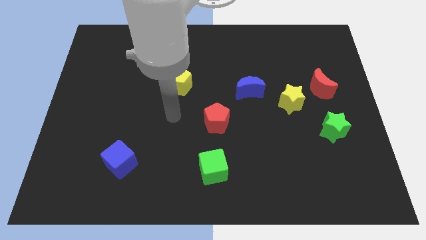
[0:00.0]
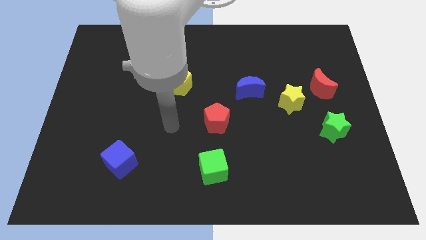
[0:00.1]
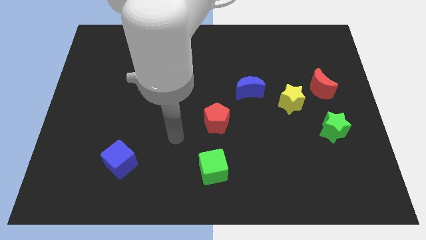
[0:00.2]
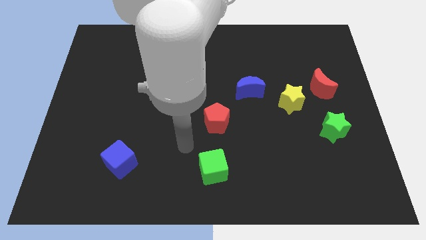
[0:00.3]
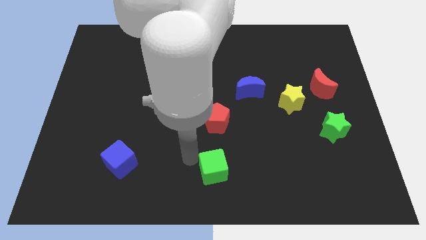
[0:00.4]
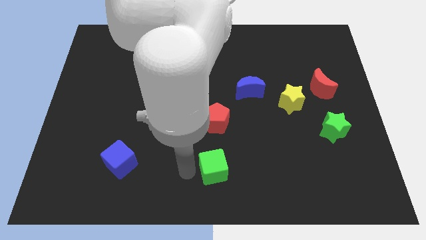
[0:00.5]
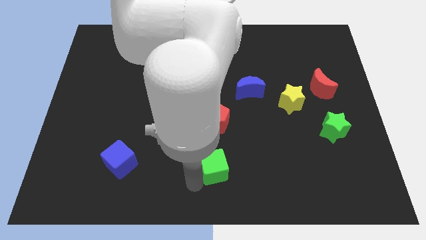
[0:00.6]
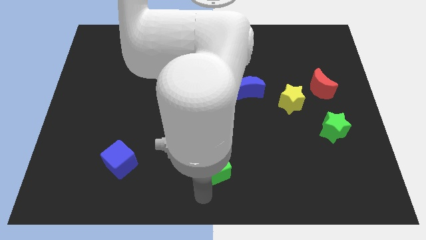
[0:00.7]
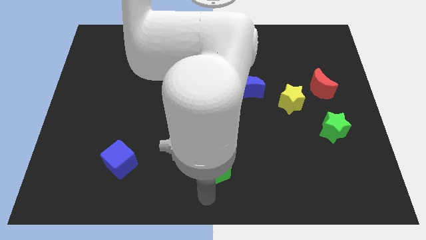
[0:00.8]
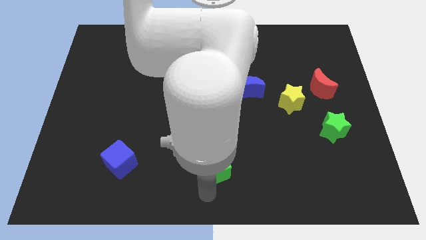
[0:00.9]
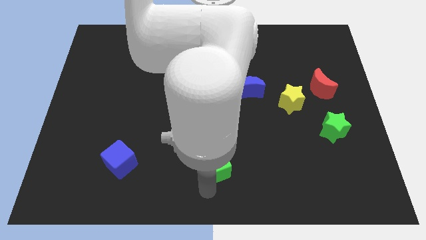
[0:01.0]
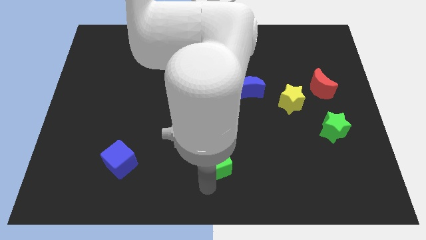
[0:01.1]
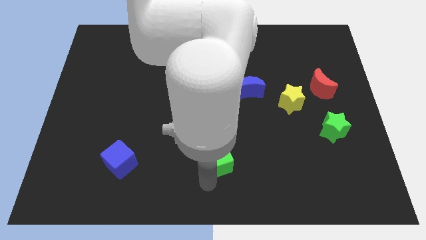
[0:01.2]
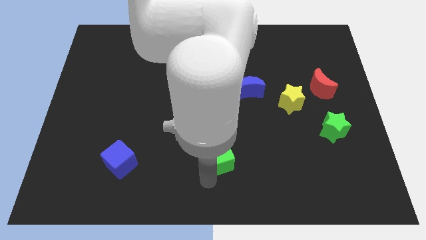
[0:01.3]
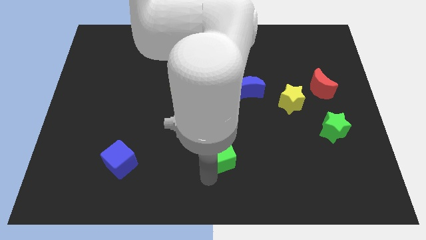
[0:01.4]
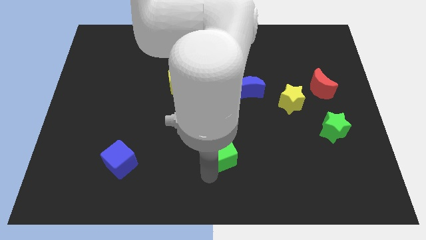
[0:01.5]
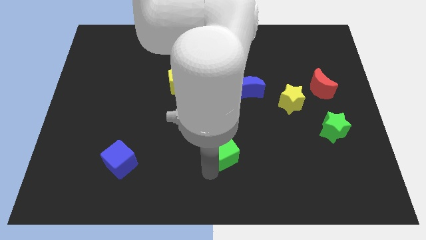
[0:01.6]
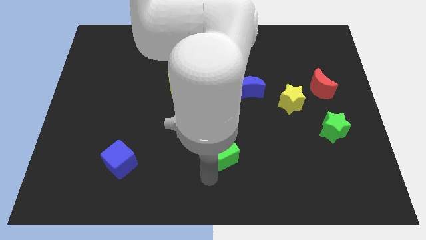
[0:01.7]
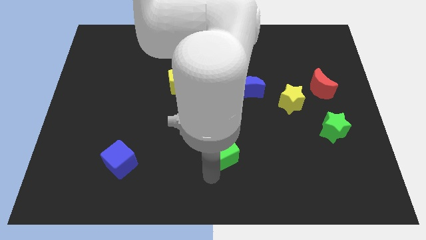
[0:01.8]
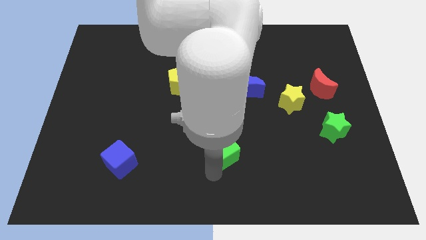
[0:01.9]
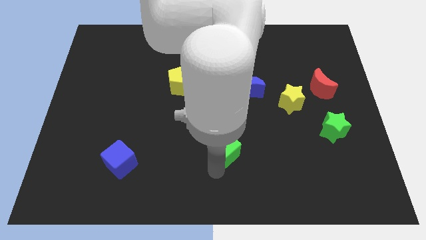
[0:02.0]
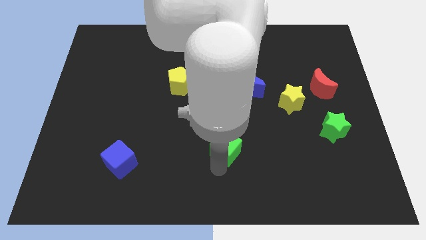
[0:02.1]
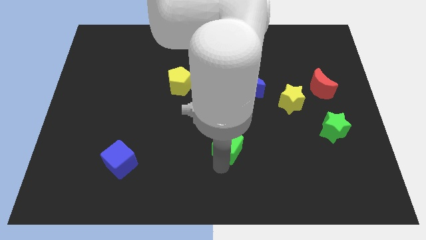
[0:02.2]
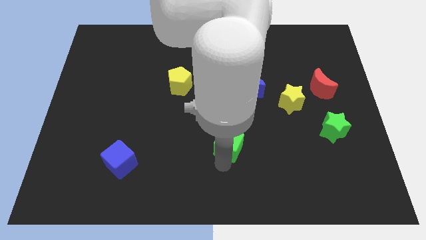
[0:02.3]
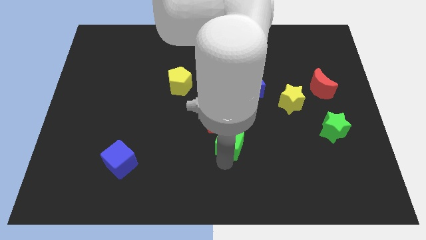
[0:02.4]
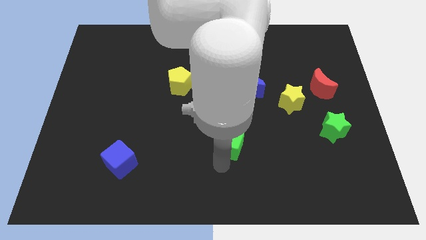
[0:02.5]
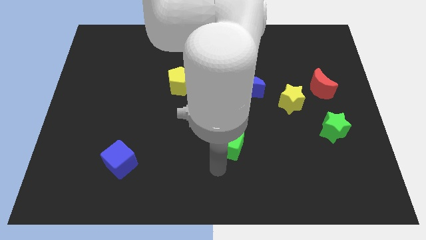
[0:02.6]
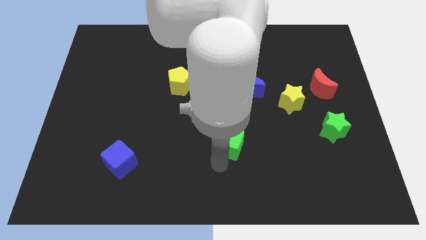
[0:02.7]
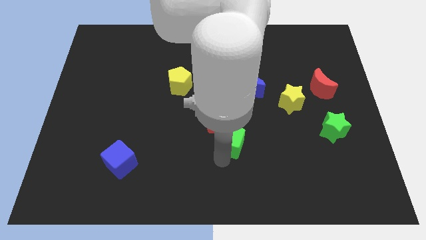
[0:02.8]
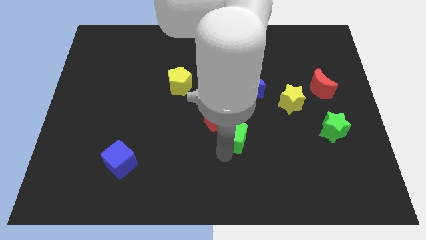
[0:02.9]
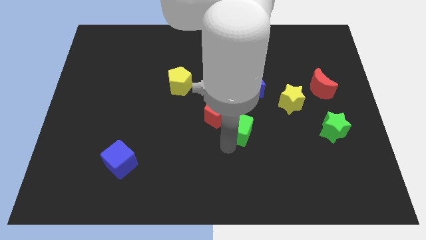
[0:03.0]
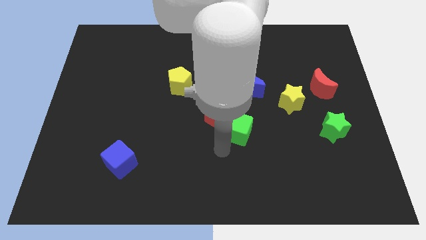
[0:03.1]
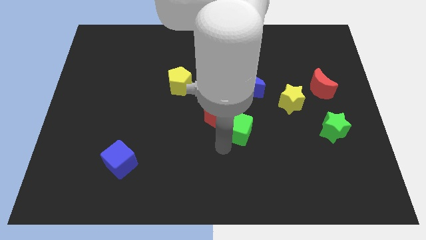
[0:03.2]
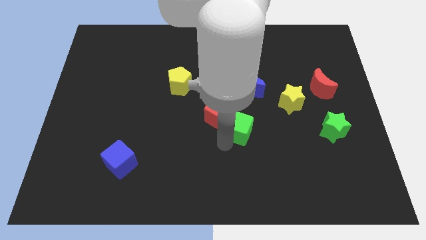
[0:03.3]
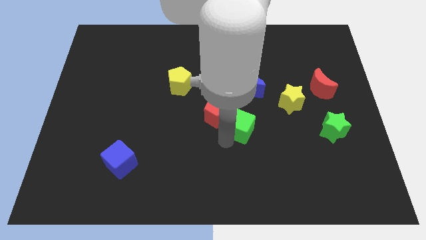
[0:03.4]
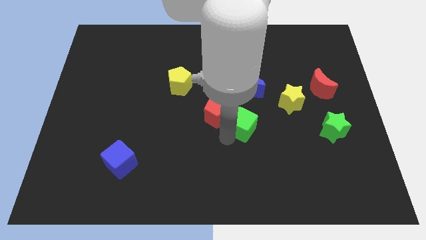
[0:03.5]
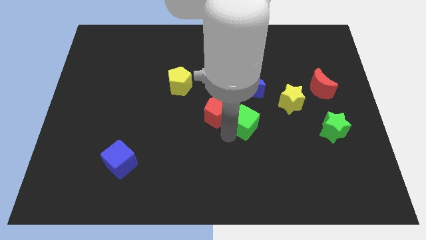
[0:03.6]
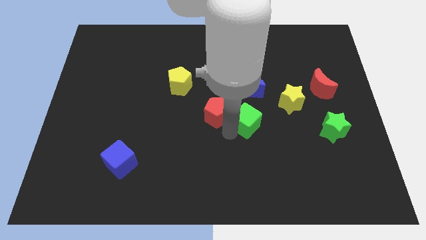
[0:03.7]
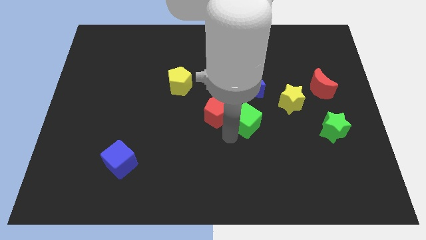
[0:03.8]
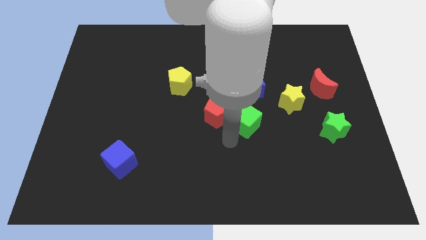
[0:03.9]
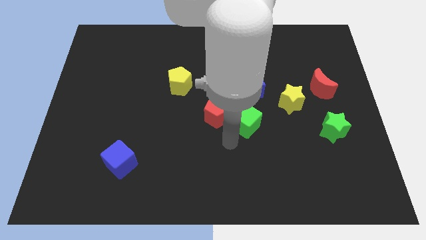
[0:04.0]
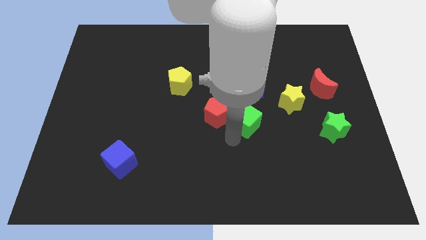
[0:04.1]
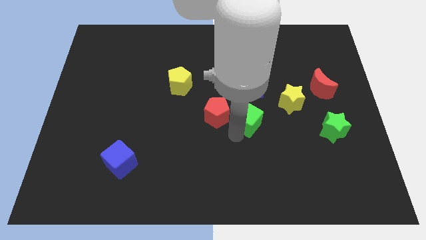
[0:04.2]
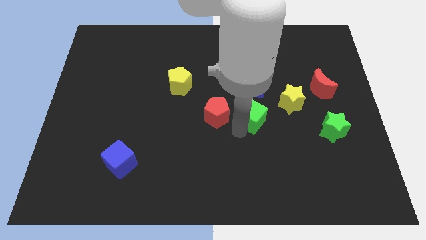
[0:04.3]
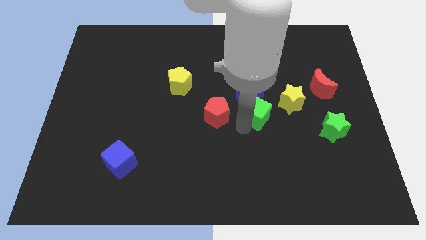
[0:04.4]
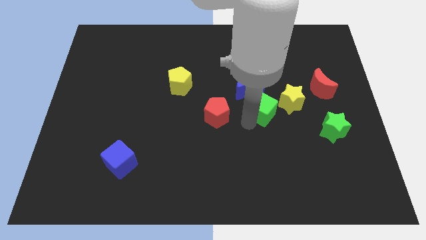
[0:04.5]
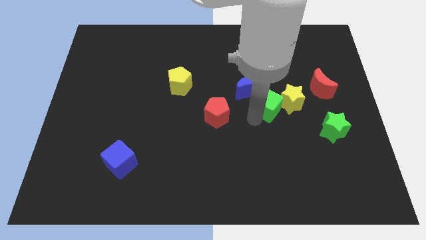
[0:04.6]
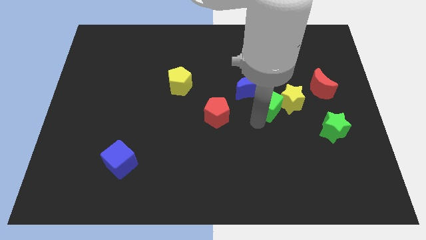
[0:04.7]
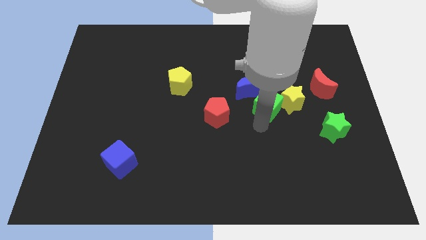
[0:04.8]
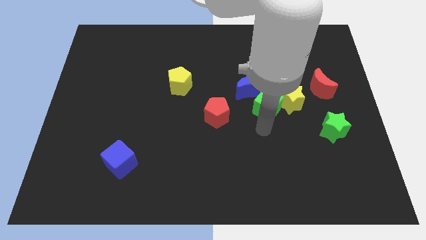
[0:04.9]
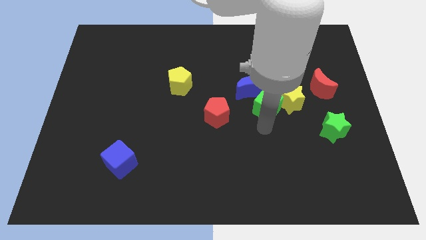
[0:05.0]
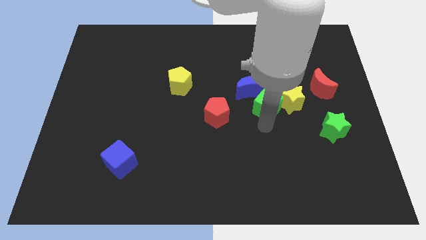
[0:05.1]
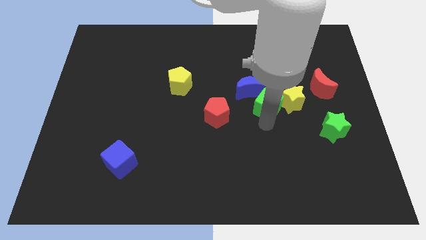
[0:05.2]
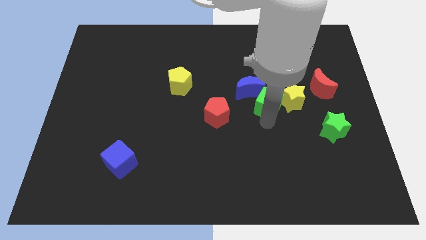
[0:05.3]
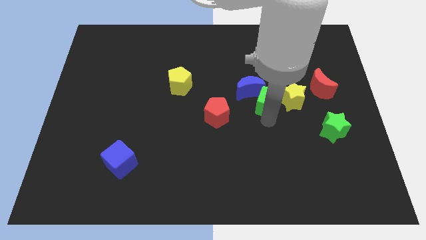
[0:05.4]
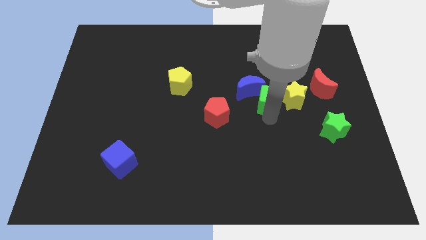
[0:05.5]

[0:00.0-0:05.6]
put the green cube just left of the red moon

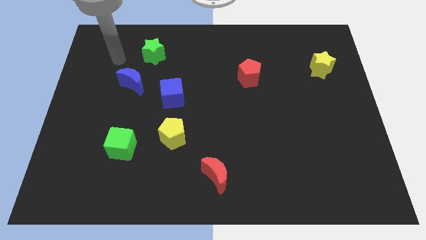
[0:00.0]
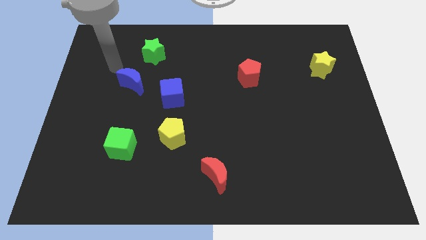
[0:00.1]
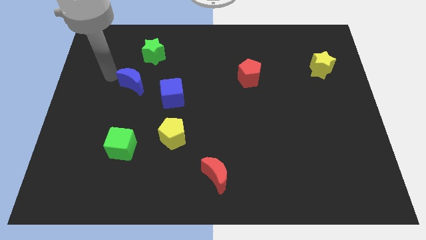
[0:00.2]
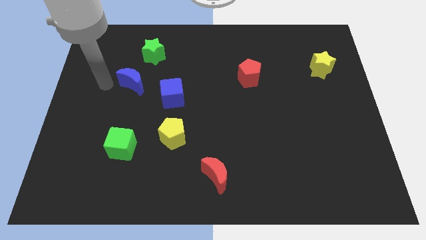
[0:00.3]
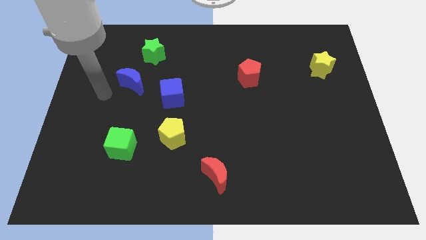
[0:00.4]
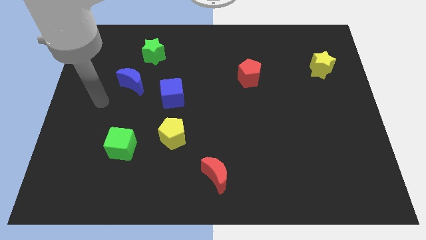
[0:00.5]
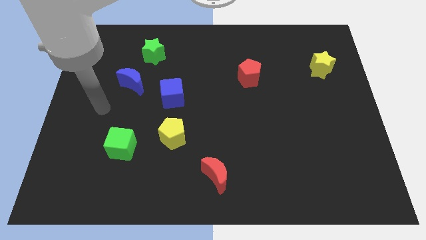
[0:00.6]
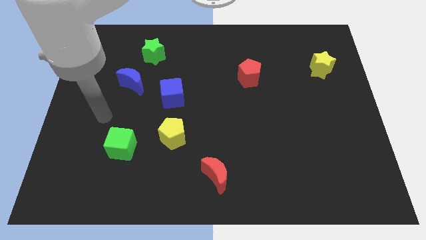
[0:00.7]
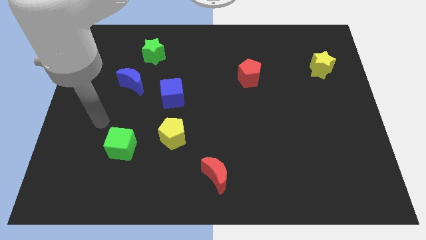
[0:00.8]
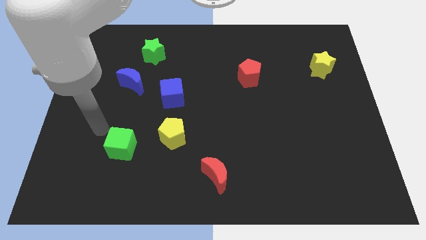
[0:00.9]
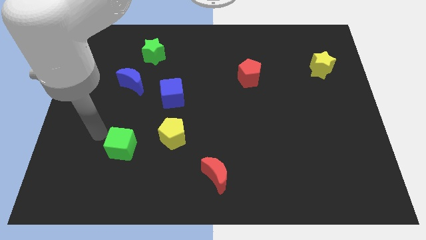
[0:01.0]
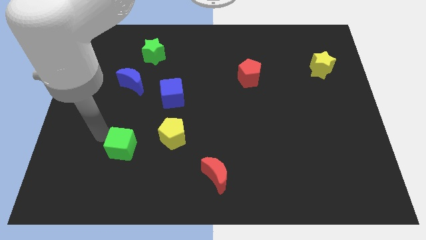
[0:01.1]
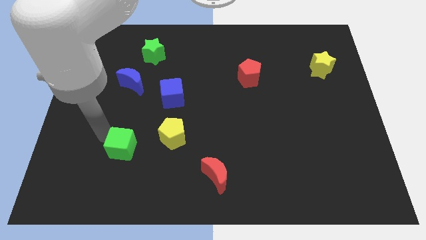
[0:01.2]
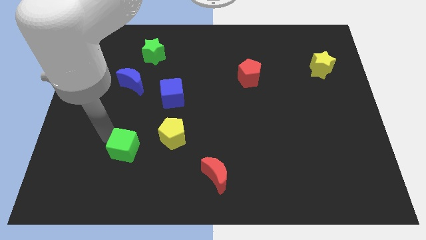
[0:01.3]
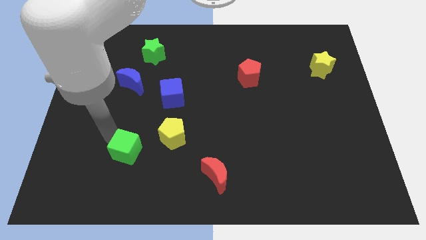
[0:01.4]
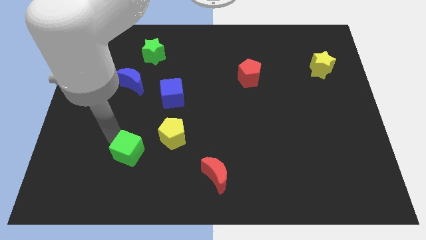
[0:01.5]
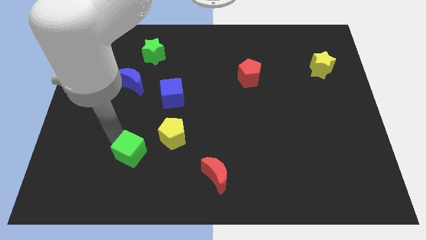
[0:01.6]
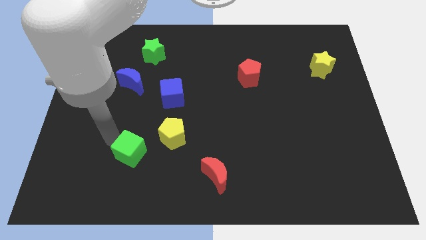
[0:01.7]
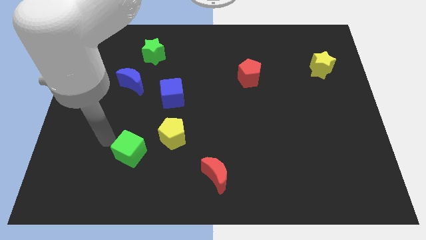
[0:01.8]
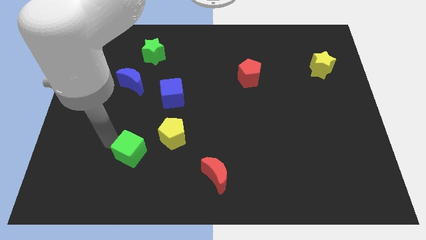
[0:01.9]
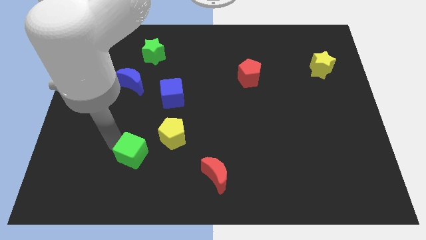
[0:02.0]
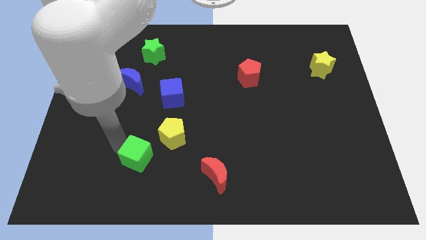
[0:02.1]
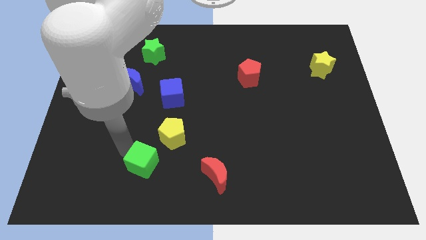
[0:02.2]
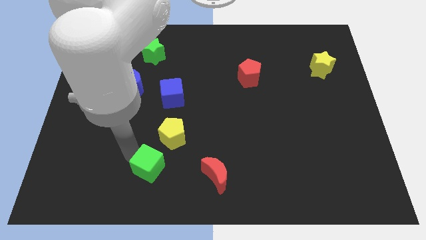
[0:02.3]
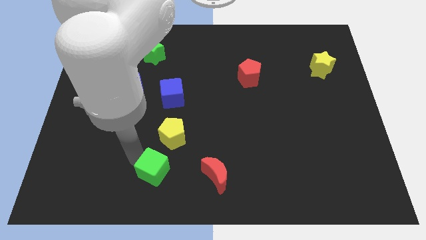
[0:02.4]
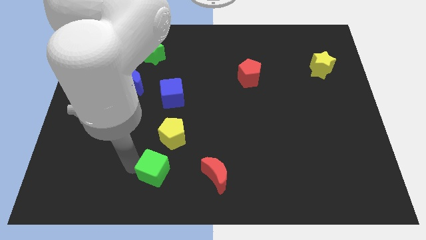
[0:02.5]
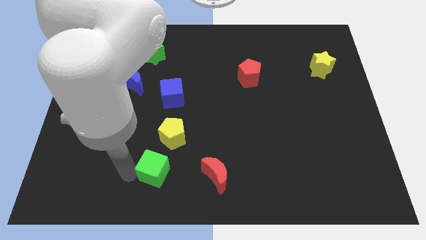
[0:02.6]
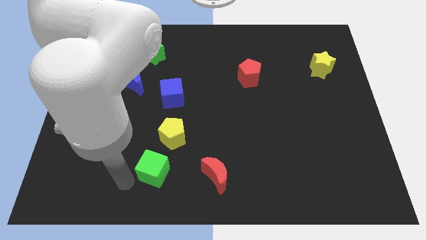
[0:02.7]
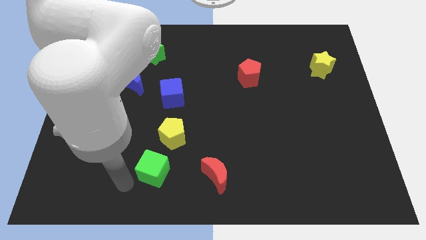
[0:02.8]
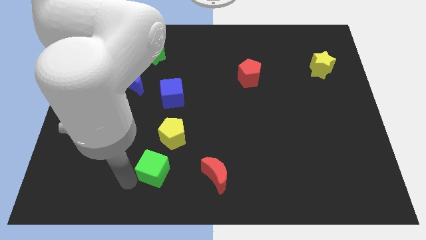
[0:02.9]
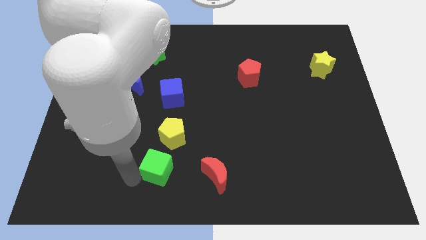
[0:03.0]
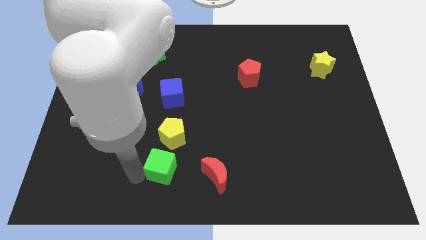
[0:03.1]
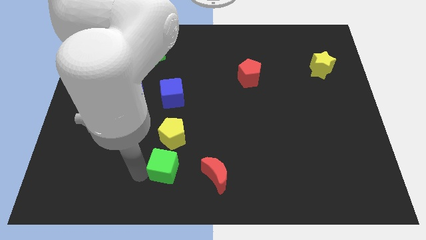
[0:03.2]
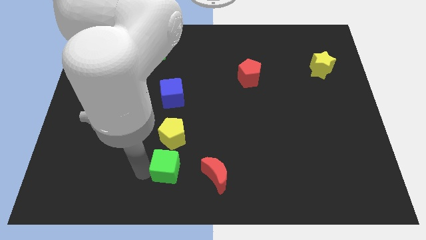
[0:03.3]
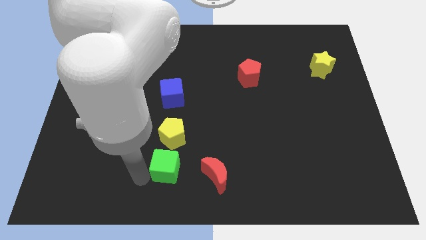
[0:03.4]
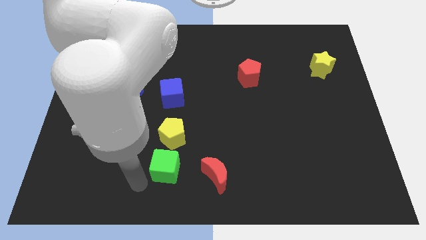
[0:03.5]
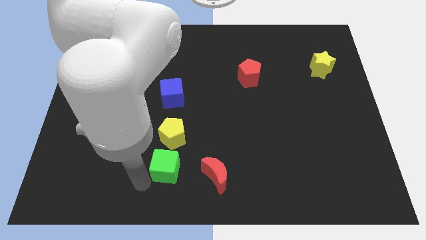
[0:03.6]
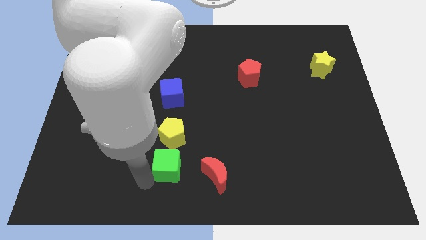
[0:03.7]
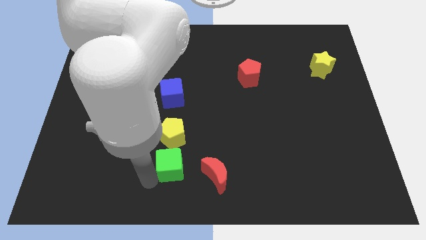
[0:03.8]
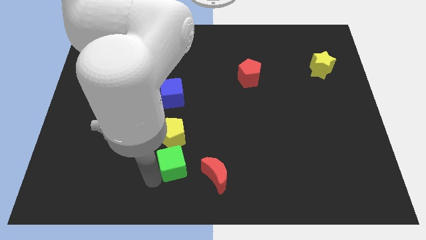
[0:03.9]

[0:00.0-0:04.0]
move the green cube to the top left side of the red moon
